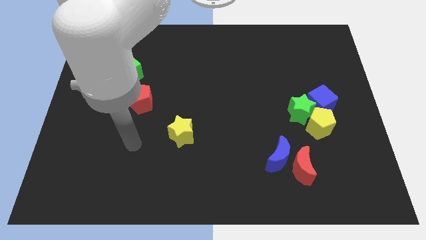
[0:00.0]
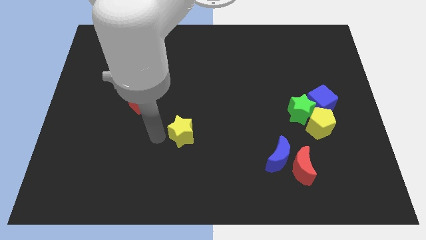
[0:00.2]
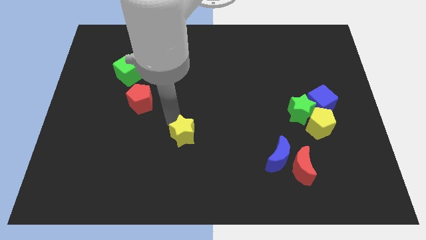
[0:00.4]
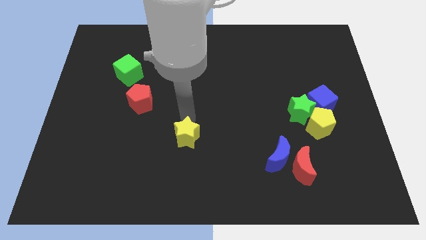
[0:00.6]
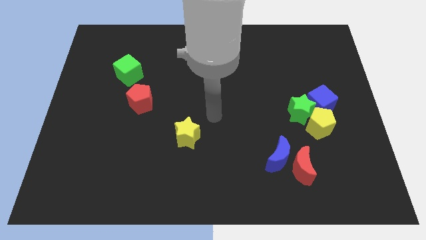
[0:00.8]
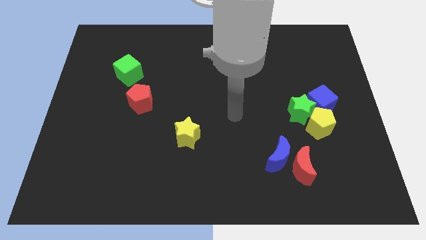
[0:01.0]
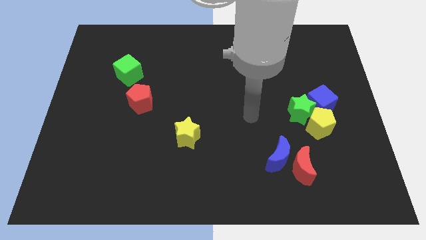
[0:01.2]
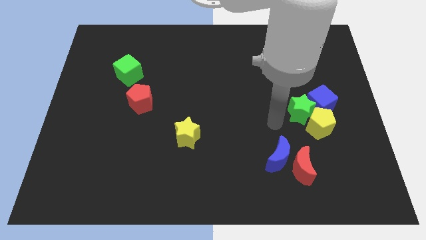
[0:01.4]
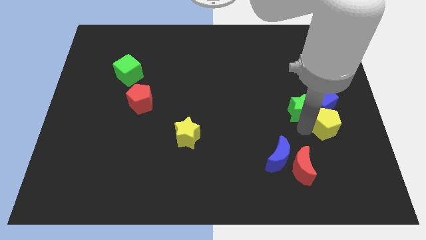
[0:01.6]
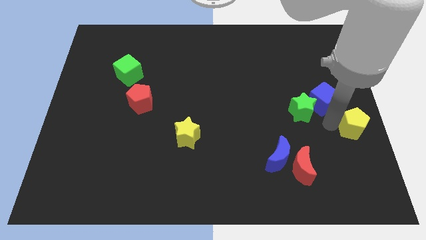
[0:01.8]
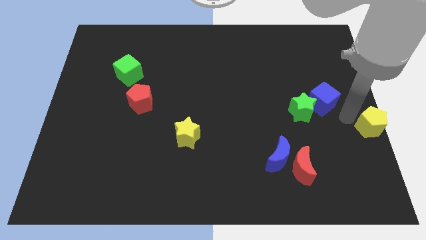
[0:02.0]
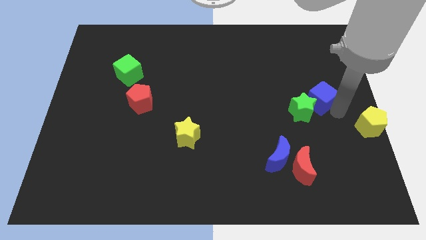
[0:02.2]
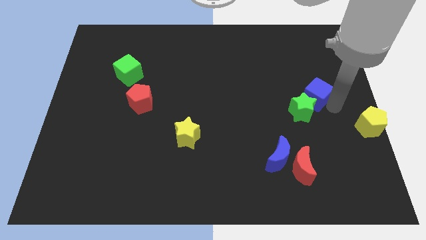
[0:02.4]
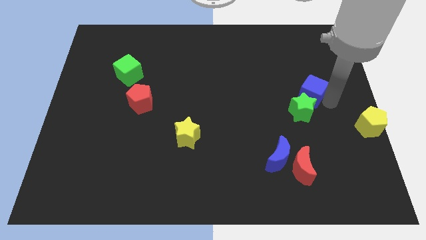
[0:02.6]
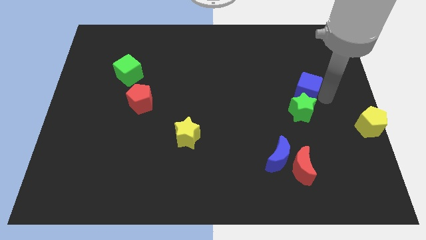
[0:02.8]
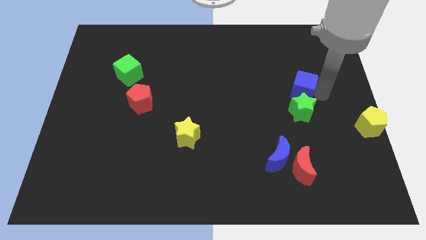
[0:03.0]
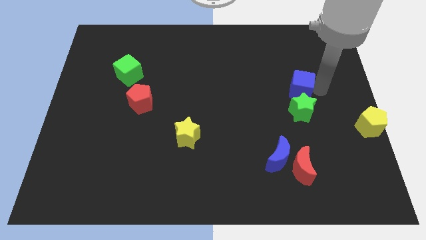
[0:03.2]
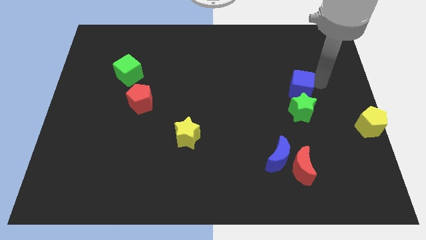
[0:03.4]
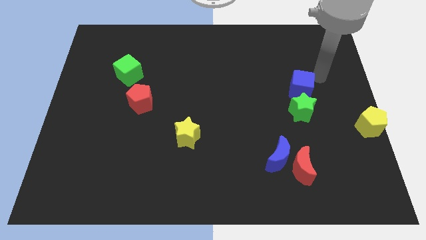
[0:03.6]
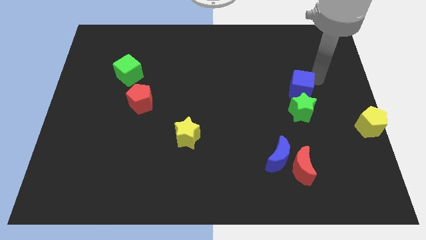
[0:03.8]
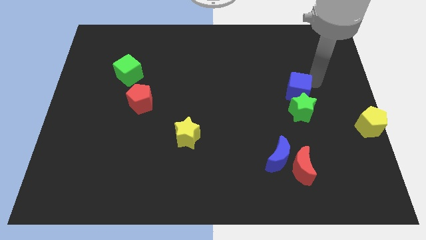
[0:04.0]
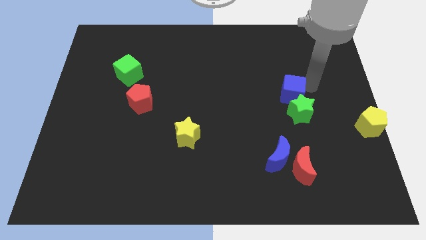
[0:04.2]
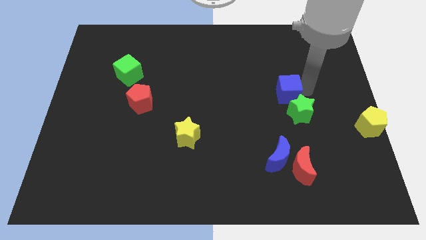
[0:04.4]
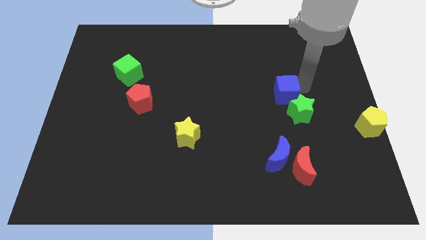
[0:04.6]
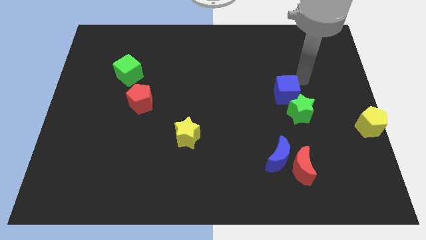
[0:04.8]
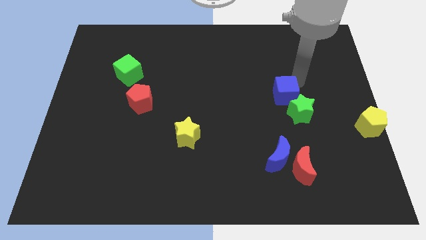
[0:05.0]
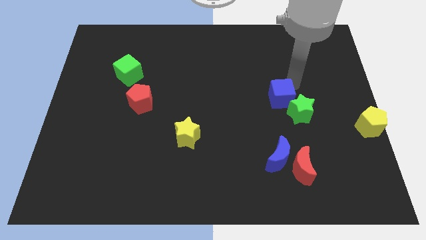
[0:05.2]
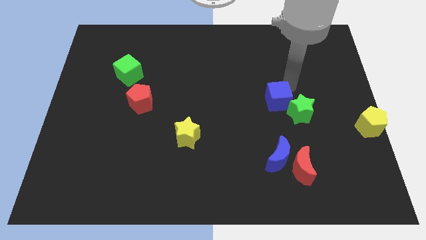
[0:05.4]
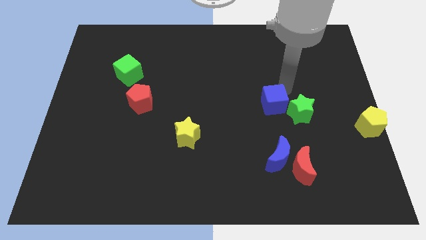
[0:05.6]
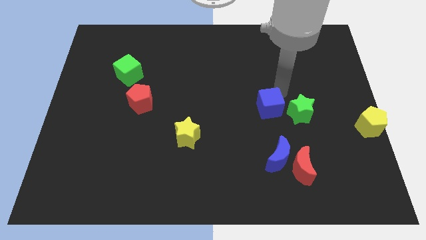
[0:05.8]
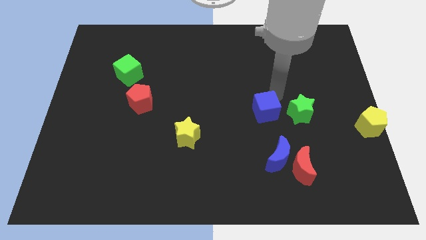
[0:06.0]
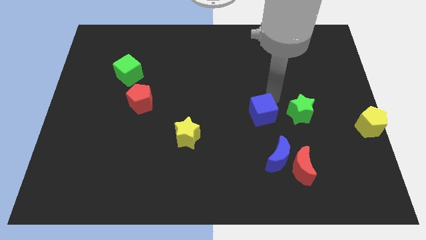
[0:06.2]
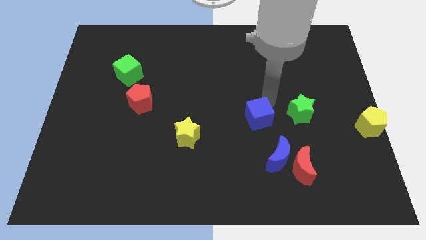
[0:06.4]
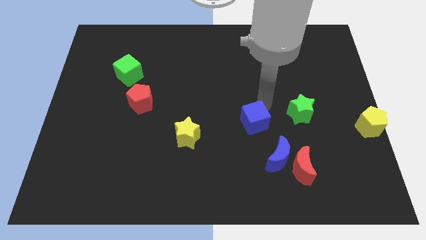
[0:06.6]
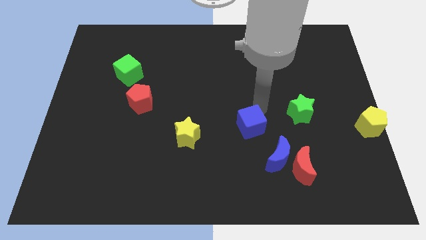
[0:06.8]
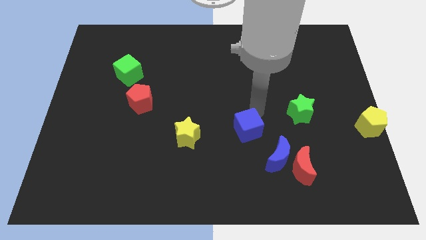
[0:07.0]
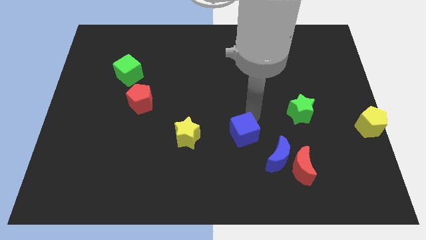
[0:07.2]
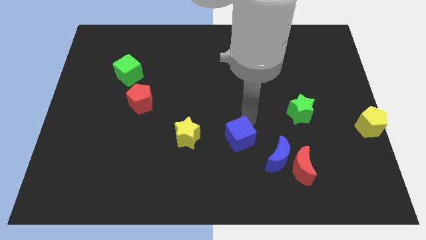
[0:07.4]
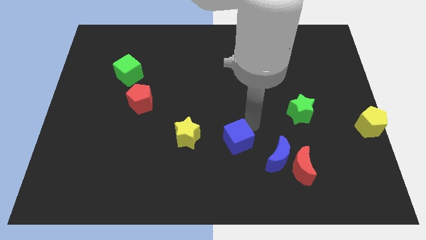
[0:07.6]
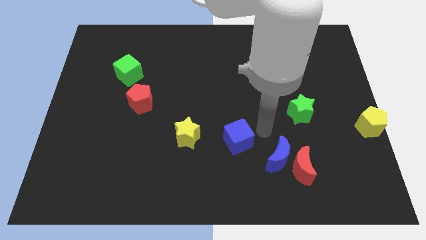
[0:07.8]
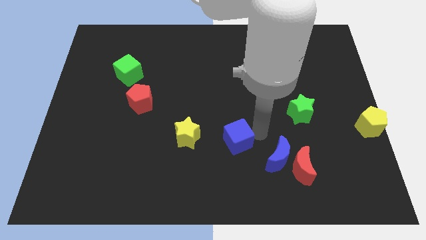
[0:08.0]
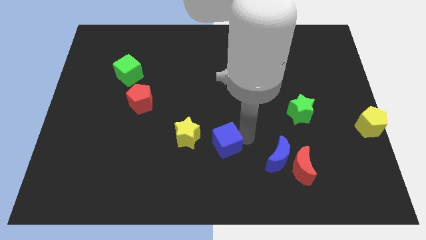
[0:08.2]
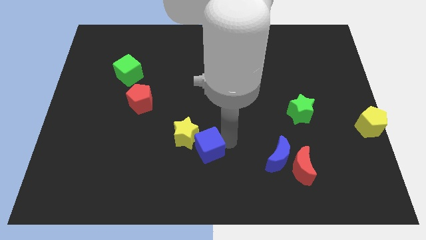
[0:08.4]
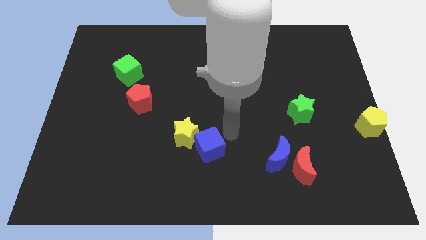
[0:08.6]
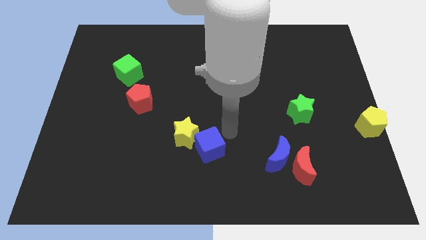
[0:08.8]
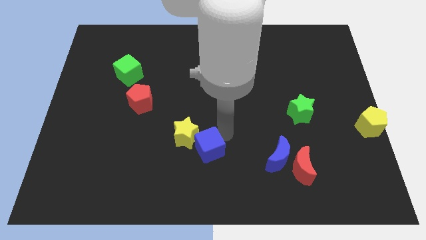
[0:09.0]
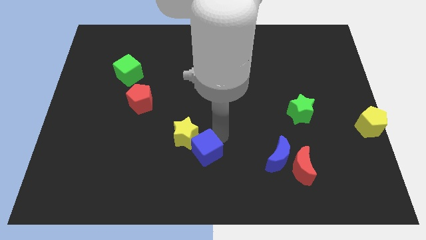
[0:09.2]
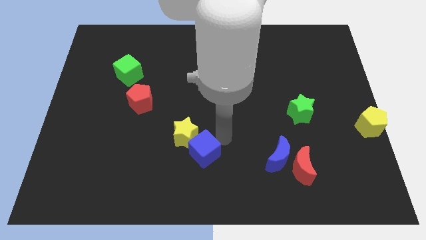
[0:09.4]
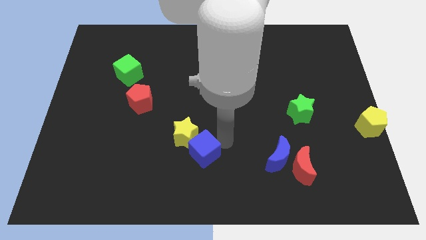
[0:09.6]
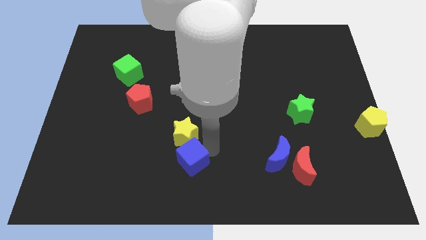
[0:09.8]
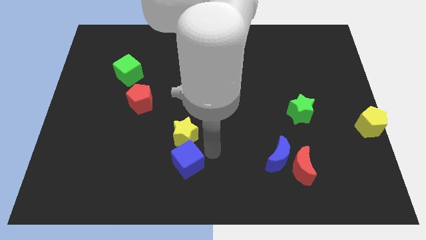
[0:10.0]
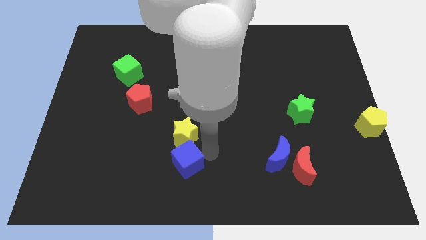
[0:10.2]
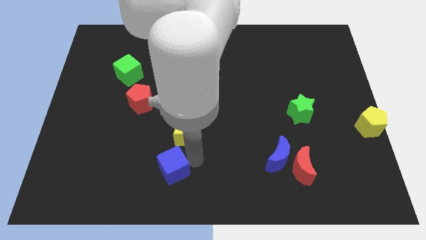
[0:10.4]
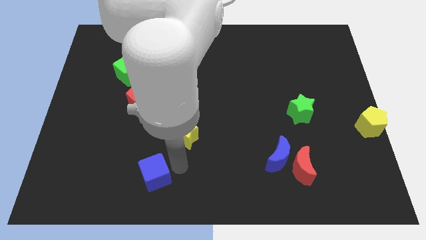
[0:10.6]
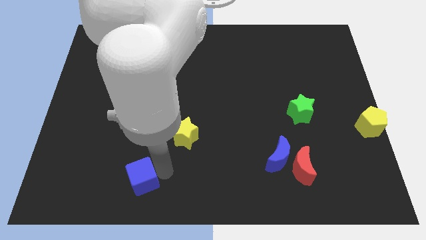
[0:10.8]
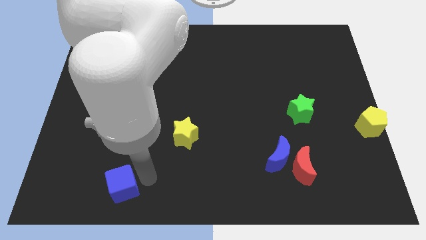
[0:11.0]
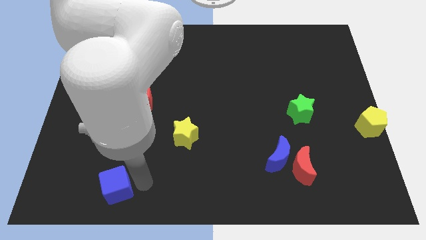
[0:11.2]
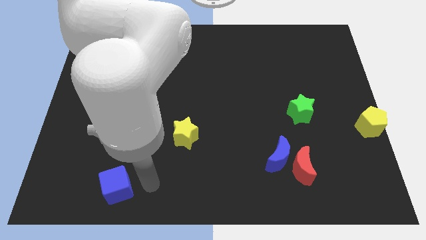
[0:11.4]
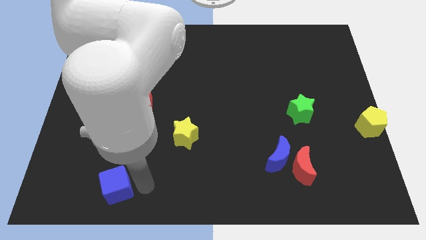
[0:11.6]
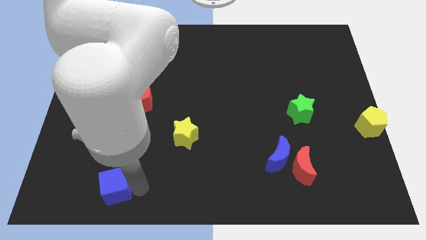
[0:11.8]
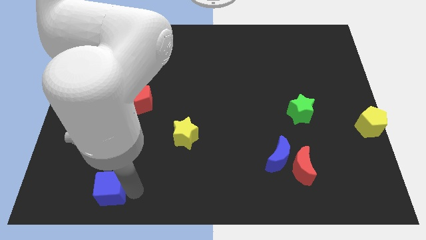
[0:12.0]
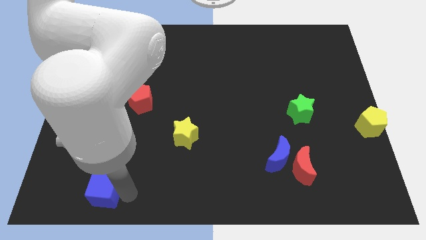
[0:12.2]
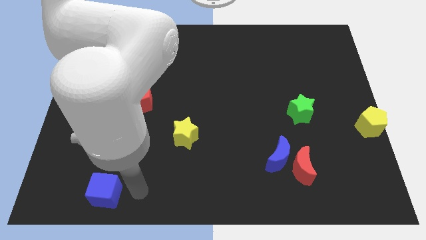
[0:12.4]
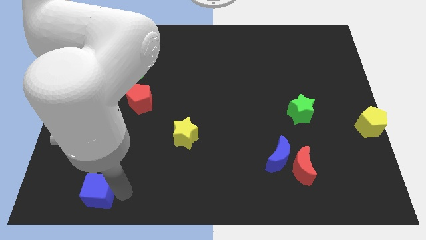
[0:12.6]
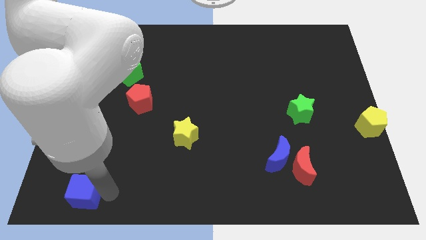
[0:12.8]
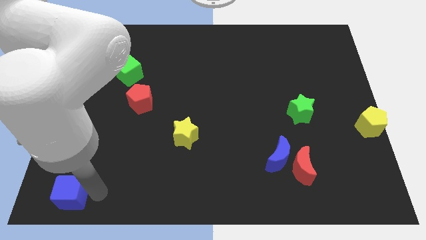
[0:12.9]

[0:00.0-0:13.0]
put the blue cube to the bottom left corner
